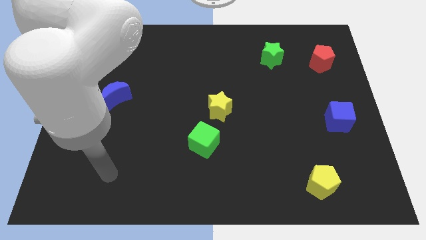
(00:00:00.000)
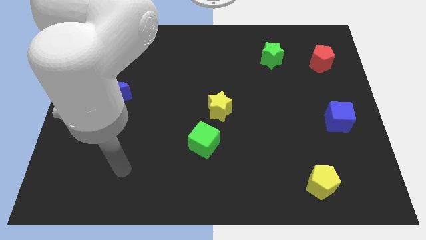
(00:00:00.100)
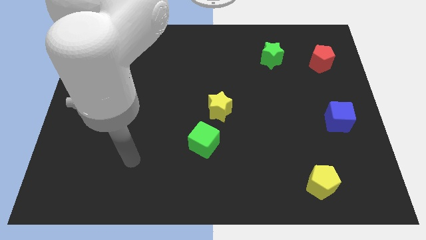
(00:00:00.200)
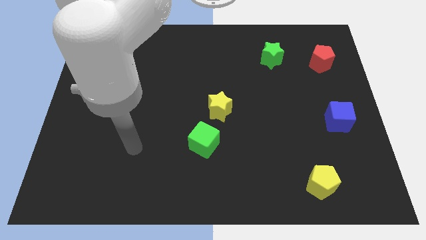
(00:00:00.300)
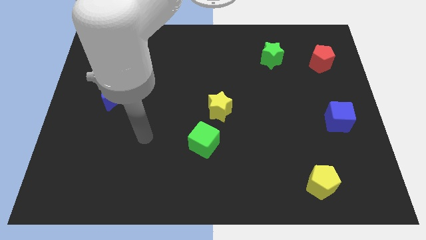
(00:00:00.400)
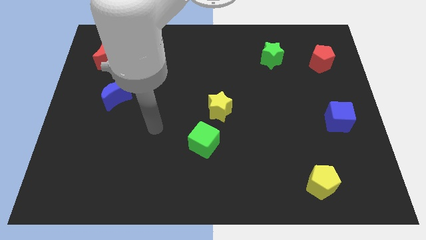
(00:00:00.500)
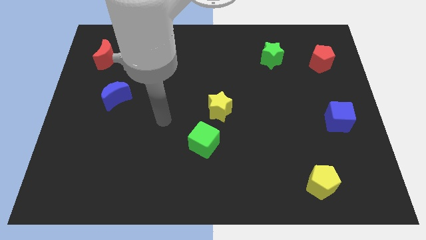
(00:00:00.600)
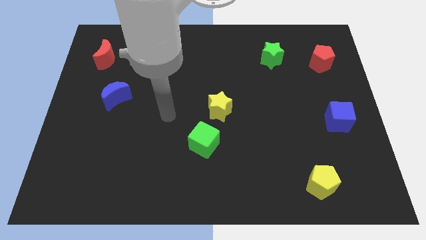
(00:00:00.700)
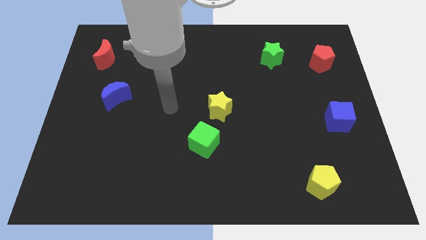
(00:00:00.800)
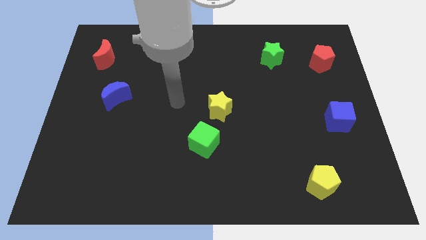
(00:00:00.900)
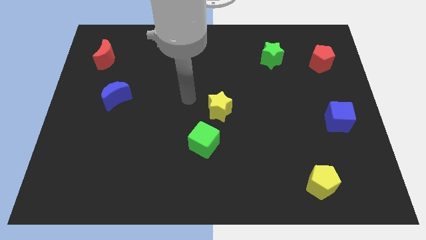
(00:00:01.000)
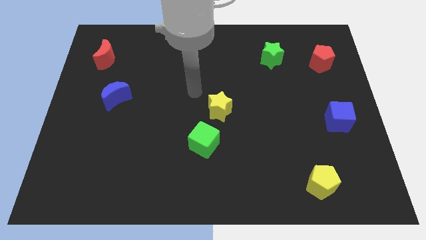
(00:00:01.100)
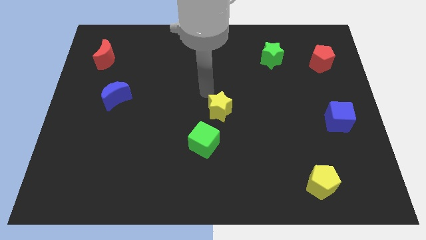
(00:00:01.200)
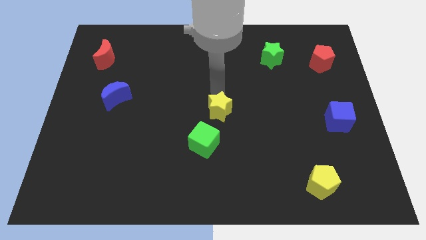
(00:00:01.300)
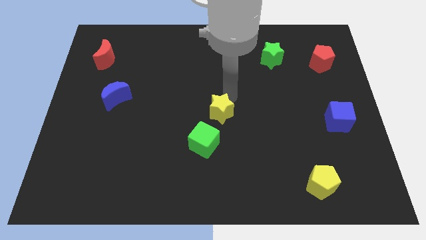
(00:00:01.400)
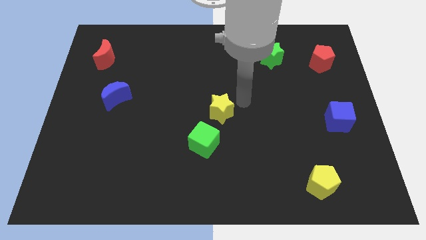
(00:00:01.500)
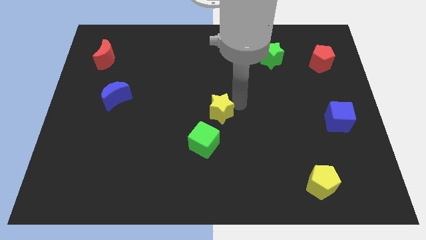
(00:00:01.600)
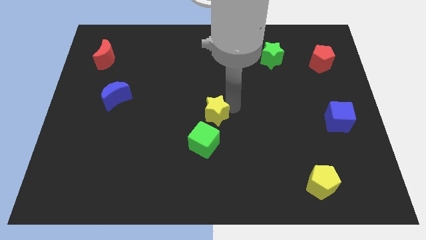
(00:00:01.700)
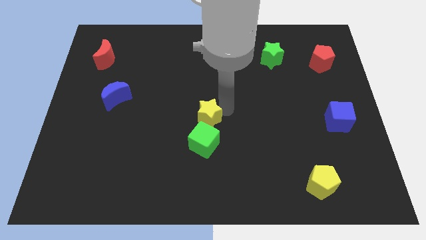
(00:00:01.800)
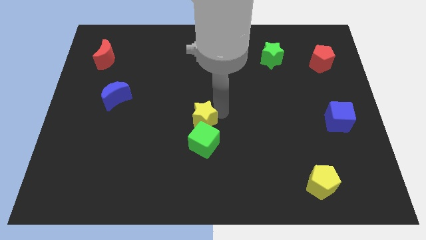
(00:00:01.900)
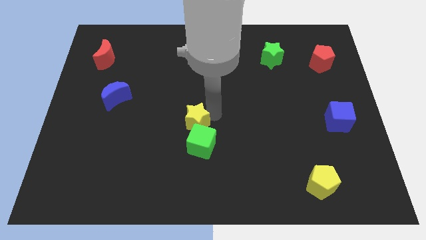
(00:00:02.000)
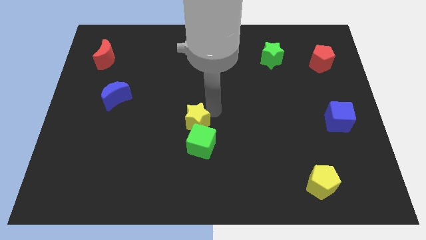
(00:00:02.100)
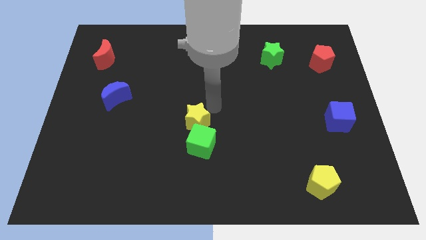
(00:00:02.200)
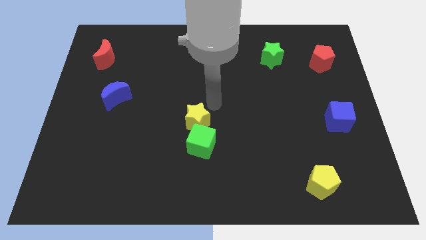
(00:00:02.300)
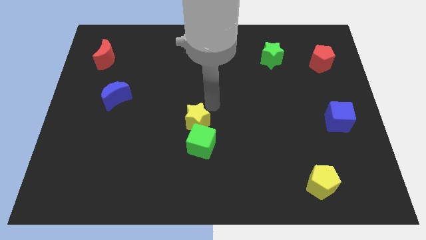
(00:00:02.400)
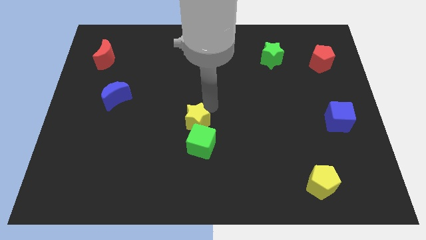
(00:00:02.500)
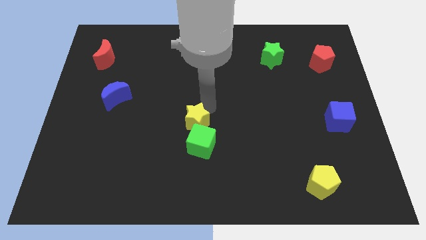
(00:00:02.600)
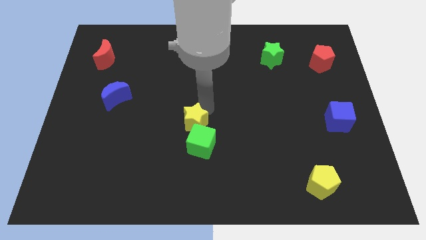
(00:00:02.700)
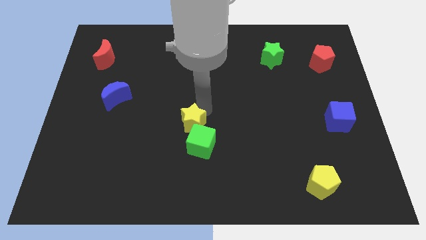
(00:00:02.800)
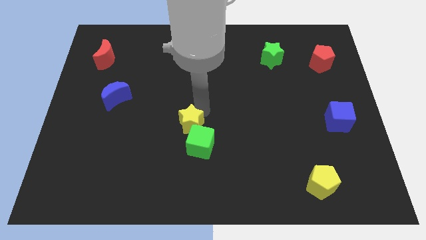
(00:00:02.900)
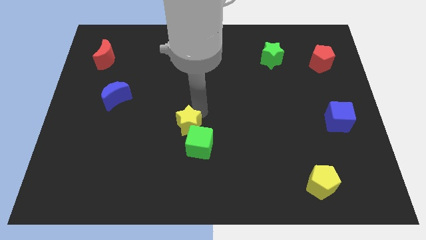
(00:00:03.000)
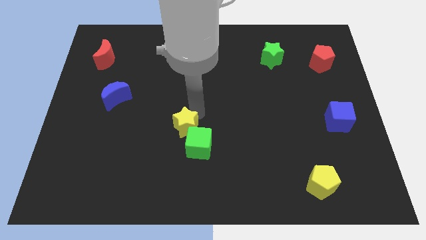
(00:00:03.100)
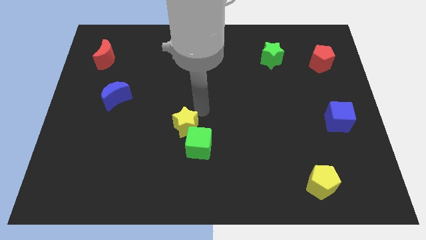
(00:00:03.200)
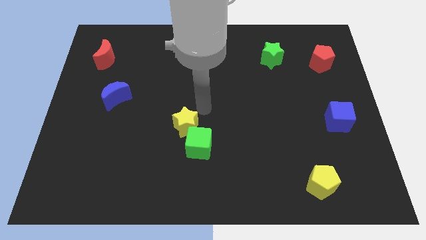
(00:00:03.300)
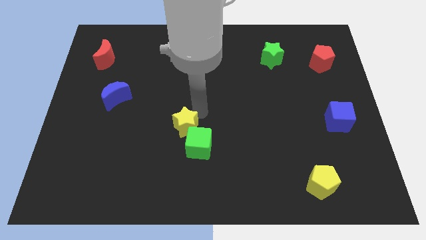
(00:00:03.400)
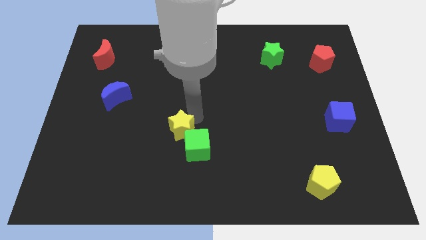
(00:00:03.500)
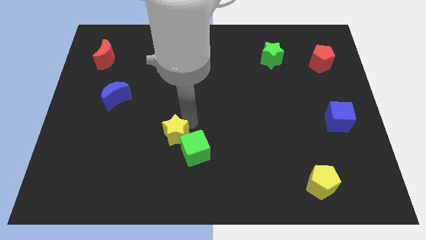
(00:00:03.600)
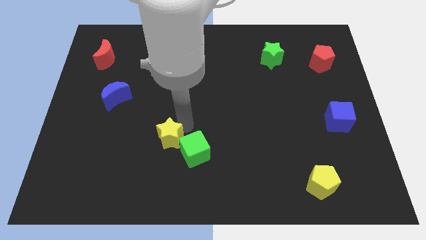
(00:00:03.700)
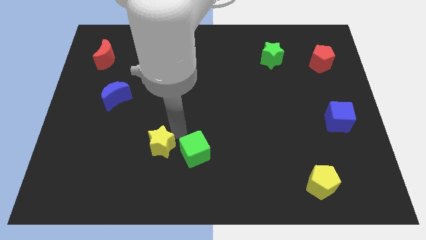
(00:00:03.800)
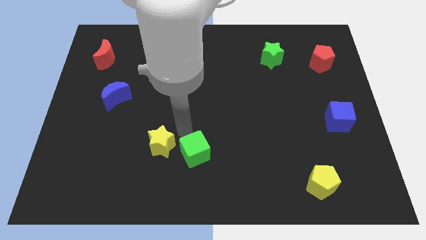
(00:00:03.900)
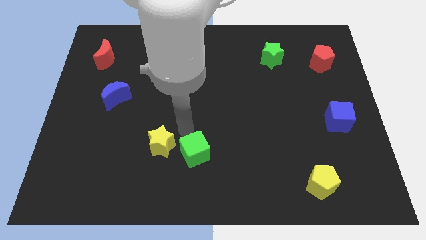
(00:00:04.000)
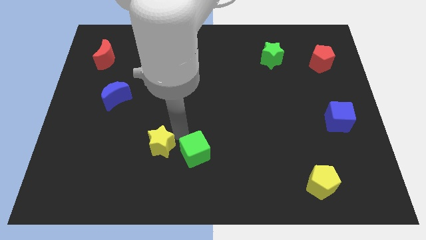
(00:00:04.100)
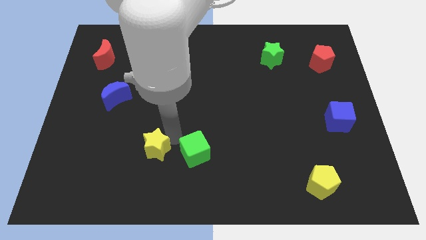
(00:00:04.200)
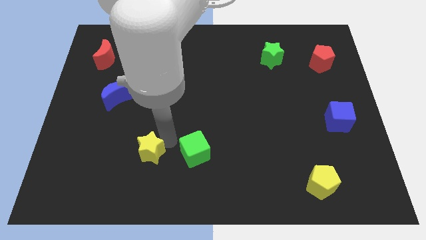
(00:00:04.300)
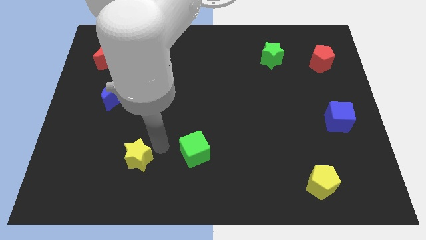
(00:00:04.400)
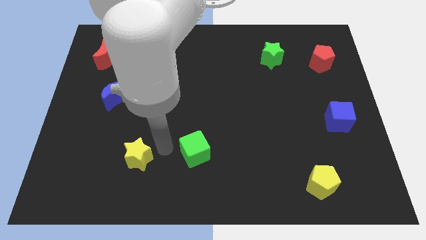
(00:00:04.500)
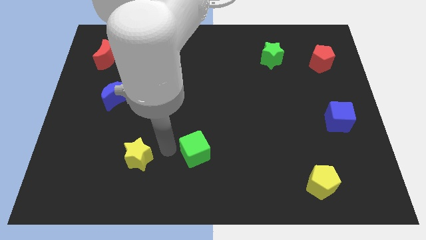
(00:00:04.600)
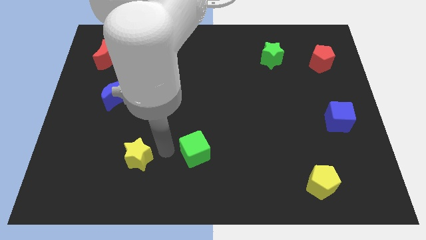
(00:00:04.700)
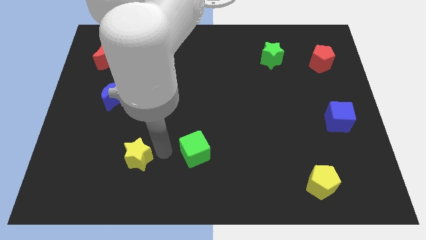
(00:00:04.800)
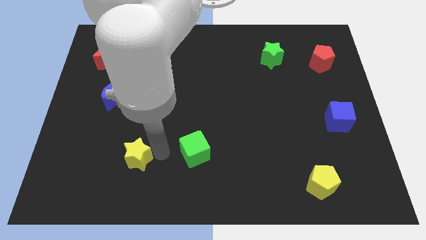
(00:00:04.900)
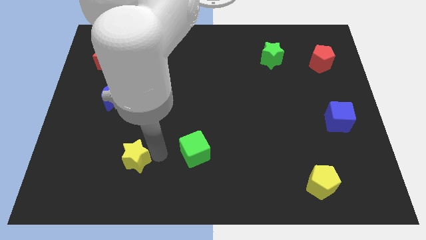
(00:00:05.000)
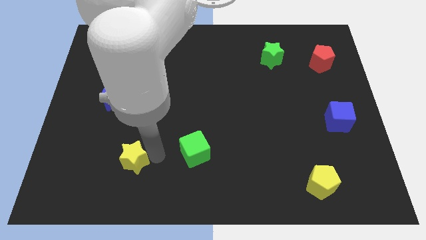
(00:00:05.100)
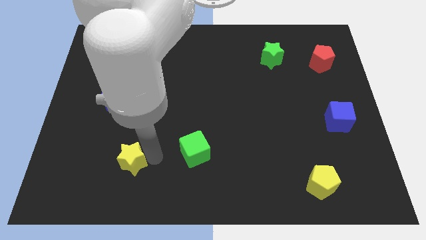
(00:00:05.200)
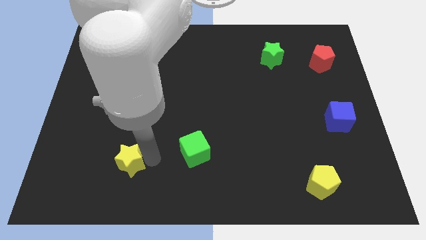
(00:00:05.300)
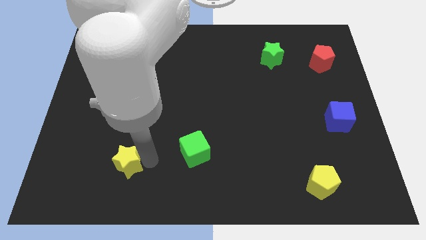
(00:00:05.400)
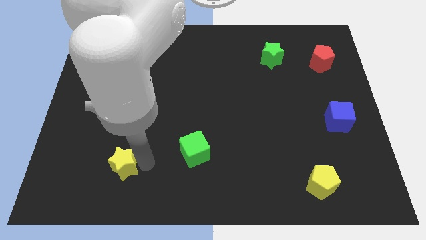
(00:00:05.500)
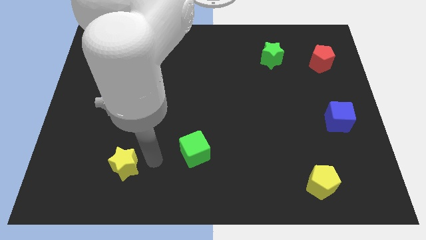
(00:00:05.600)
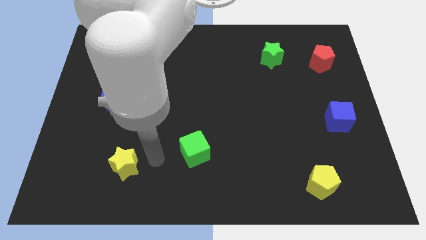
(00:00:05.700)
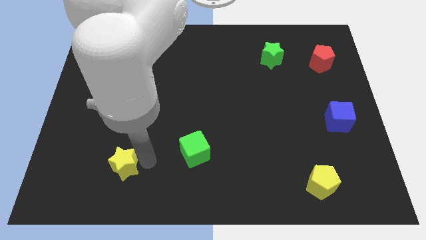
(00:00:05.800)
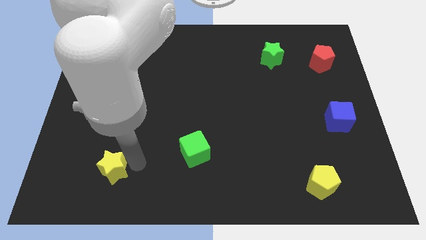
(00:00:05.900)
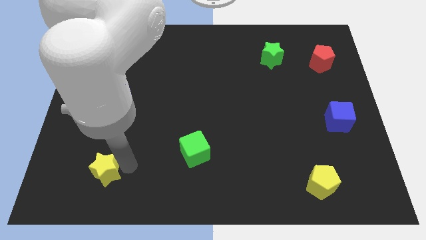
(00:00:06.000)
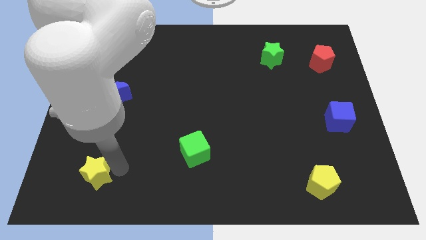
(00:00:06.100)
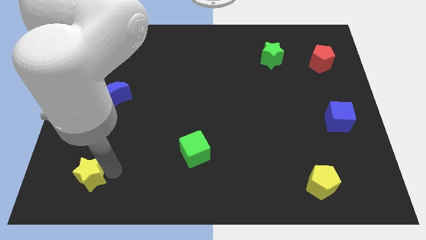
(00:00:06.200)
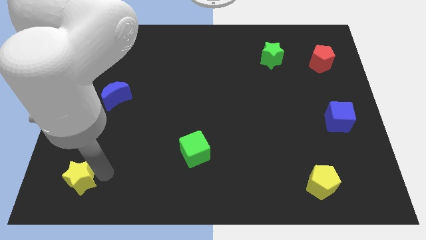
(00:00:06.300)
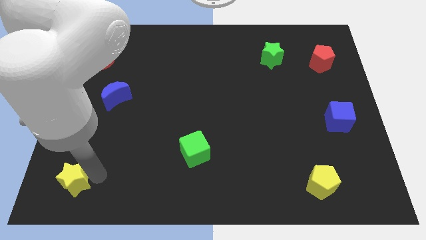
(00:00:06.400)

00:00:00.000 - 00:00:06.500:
put the yellow star to the bottom left

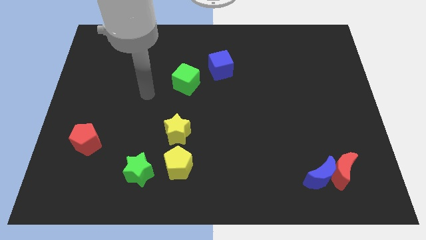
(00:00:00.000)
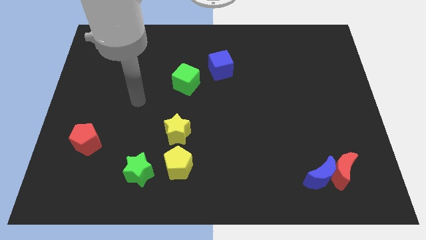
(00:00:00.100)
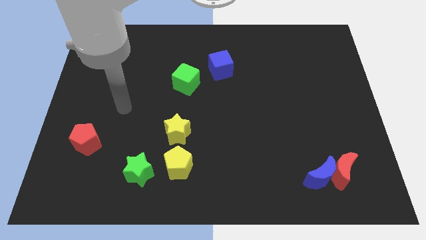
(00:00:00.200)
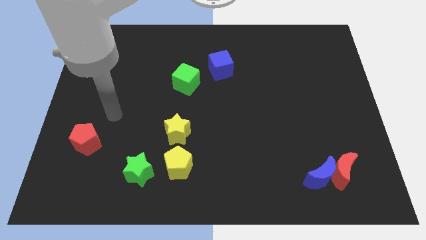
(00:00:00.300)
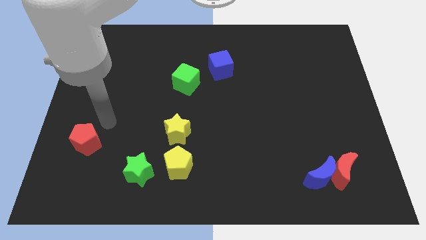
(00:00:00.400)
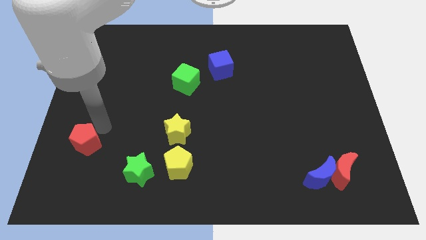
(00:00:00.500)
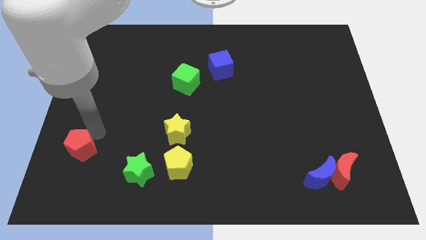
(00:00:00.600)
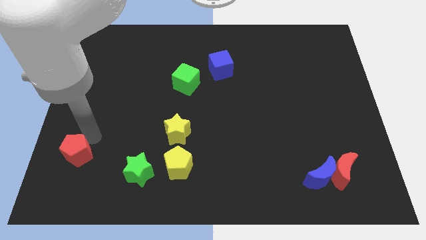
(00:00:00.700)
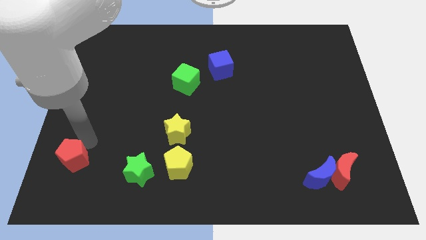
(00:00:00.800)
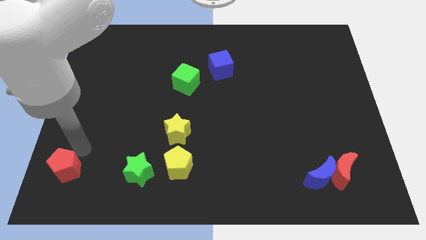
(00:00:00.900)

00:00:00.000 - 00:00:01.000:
slide the red pentagon to the bottom left
